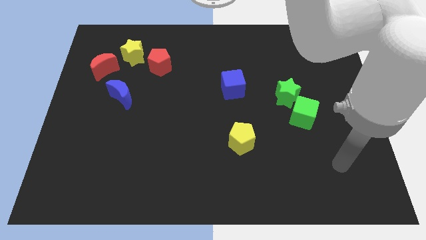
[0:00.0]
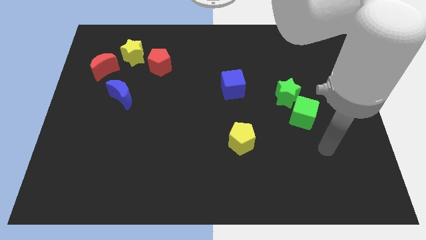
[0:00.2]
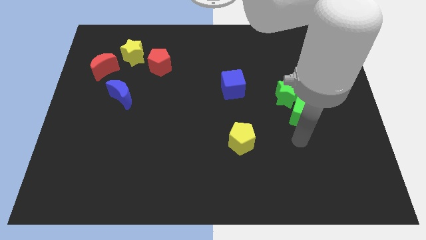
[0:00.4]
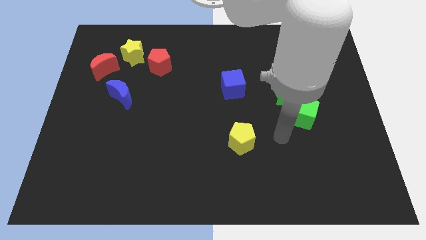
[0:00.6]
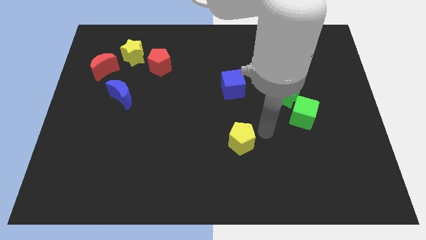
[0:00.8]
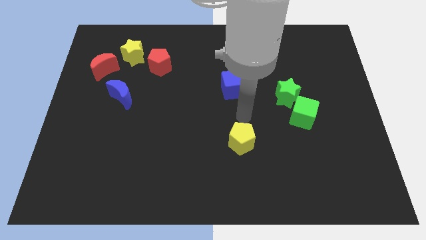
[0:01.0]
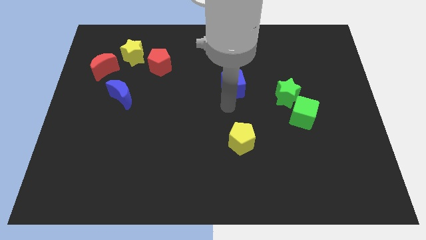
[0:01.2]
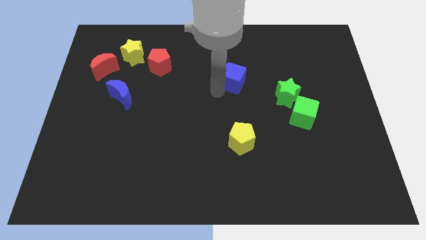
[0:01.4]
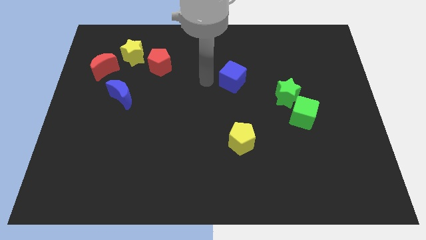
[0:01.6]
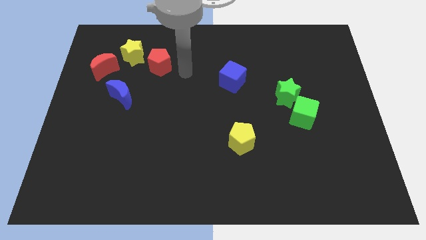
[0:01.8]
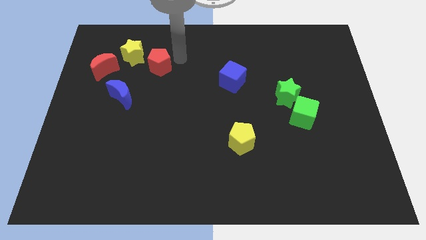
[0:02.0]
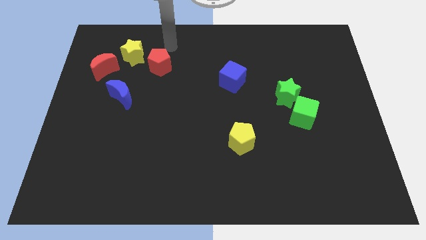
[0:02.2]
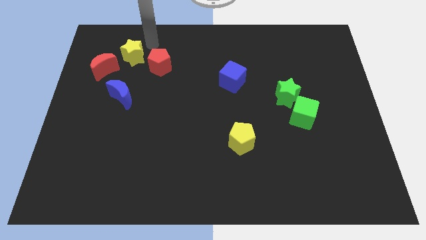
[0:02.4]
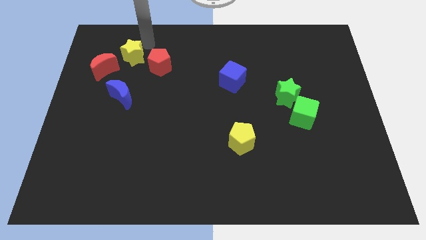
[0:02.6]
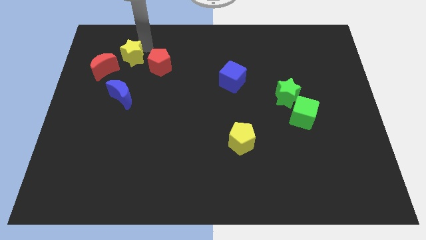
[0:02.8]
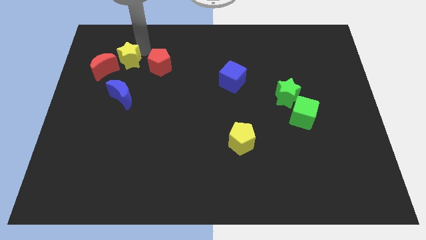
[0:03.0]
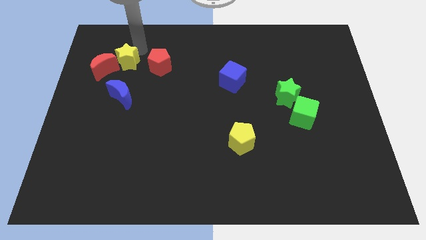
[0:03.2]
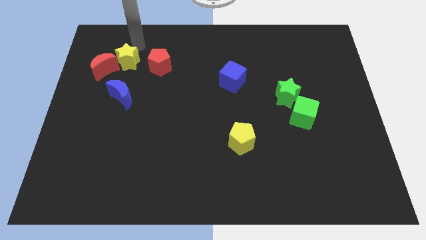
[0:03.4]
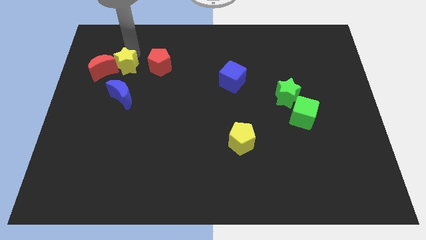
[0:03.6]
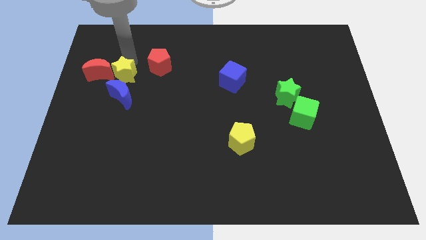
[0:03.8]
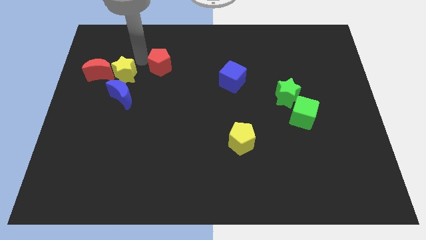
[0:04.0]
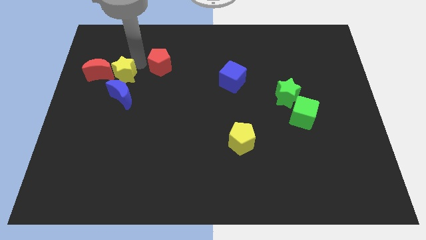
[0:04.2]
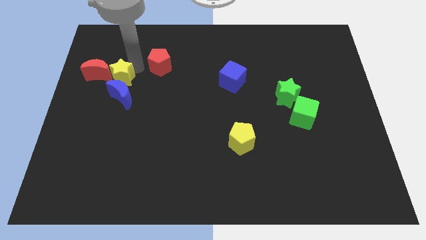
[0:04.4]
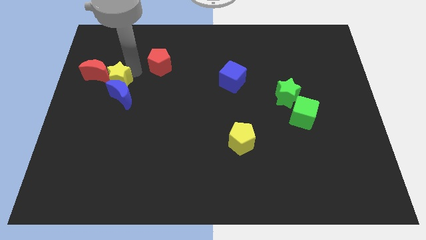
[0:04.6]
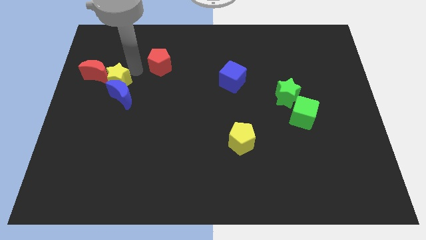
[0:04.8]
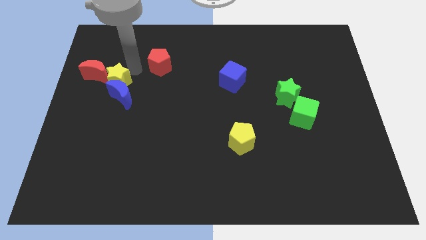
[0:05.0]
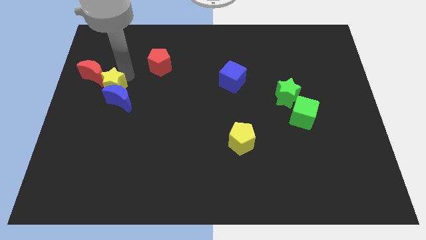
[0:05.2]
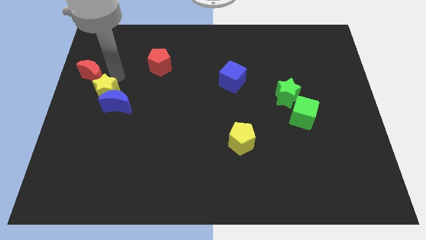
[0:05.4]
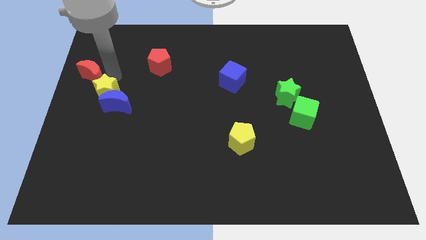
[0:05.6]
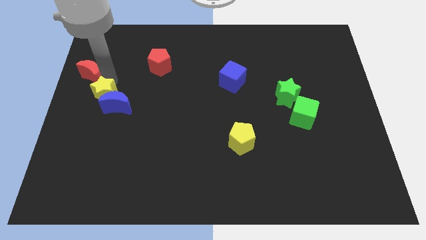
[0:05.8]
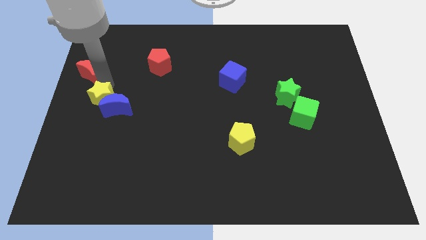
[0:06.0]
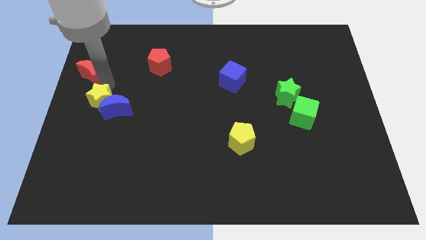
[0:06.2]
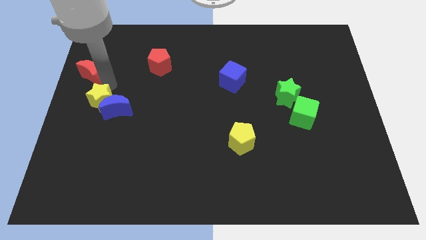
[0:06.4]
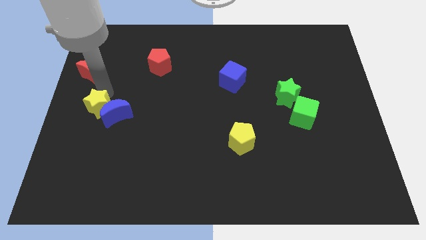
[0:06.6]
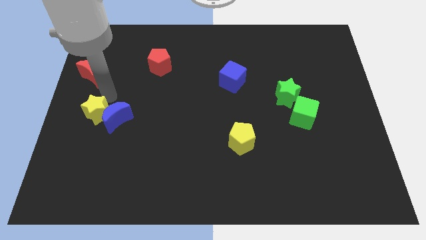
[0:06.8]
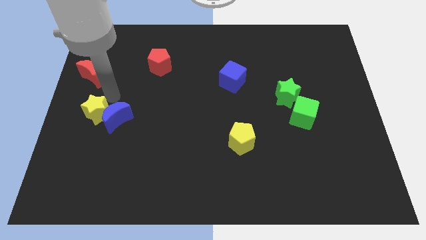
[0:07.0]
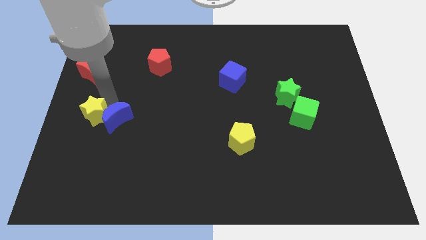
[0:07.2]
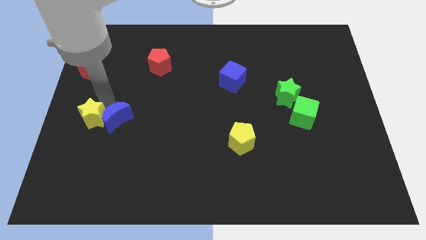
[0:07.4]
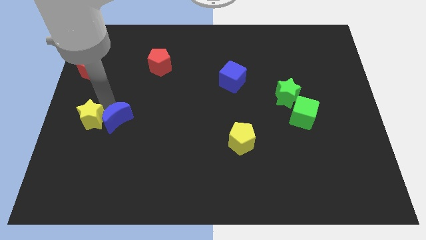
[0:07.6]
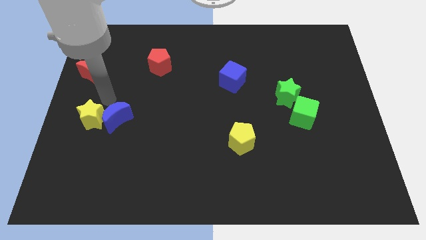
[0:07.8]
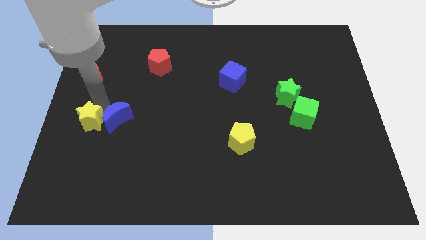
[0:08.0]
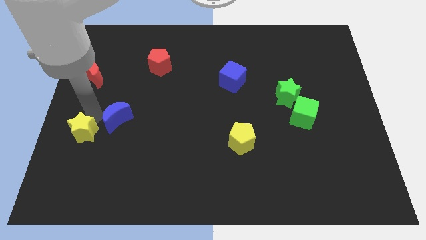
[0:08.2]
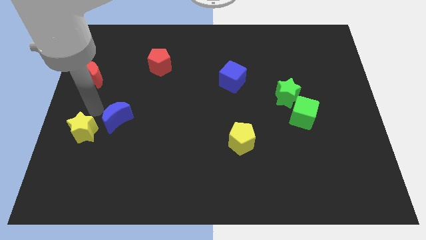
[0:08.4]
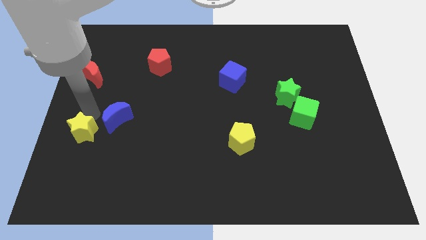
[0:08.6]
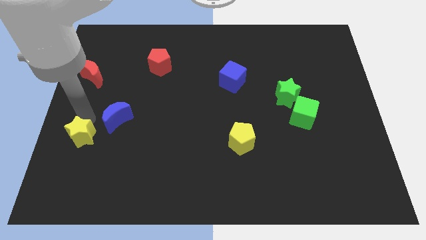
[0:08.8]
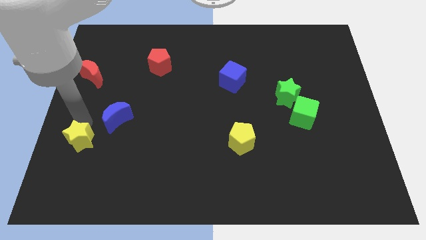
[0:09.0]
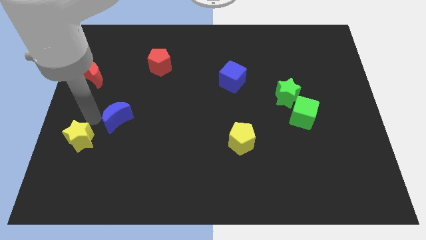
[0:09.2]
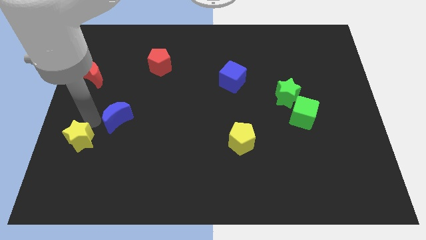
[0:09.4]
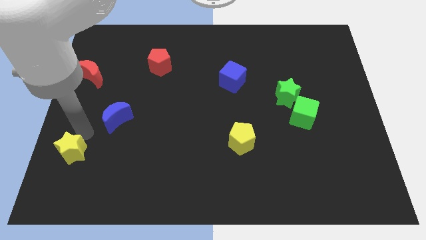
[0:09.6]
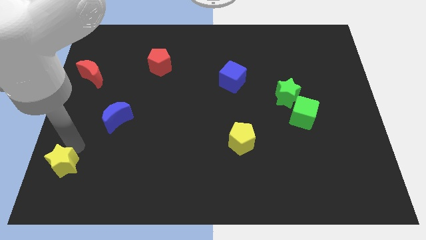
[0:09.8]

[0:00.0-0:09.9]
slide the yellow star to the bottom left of the board

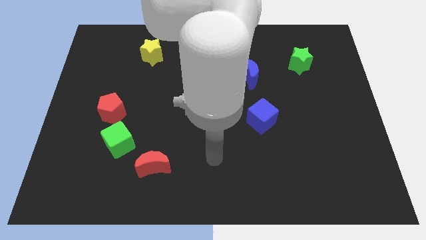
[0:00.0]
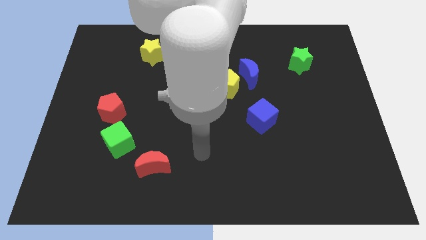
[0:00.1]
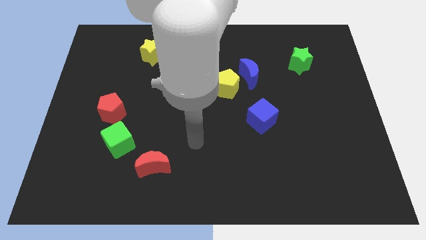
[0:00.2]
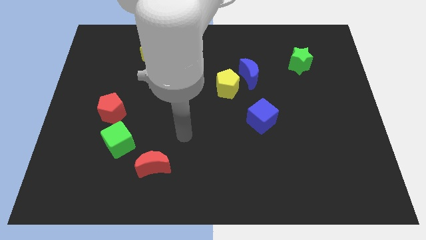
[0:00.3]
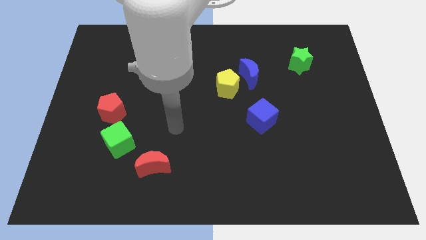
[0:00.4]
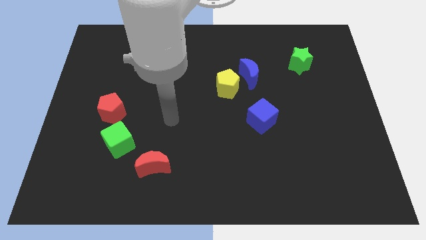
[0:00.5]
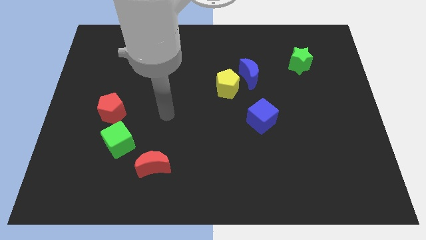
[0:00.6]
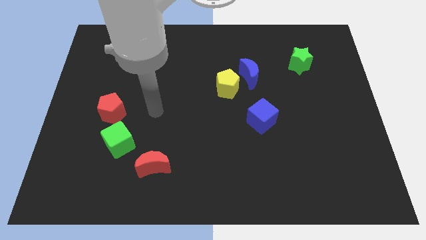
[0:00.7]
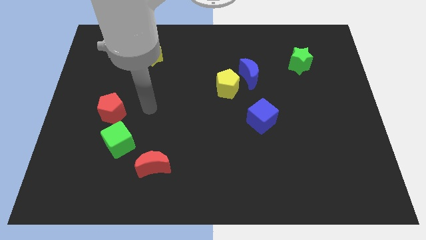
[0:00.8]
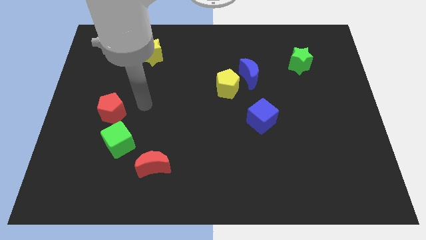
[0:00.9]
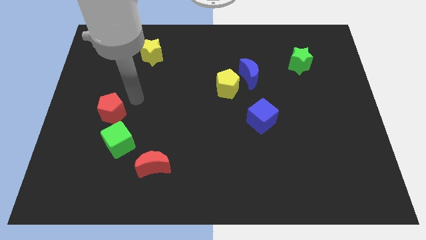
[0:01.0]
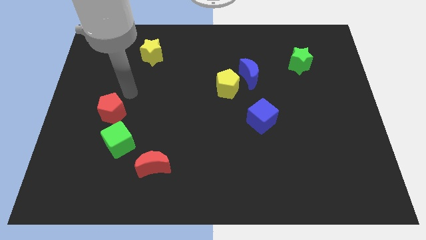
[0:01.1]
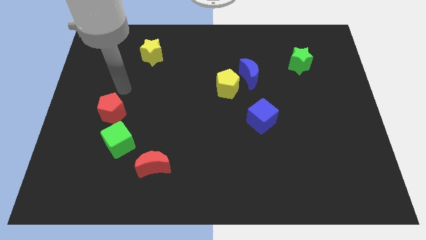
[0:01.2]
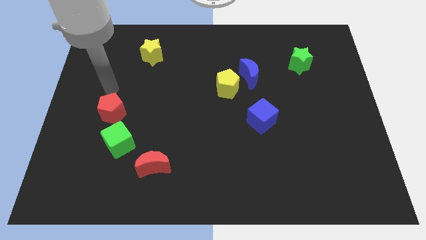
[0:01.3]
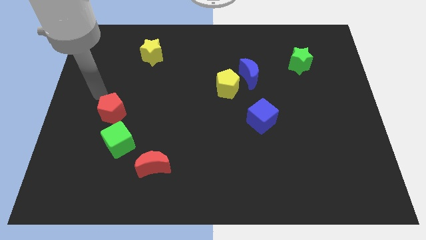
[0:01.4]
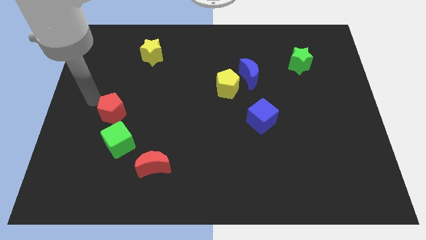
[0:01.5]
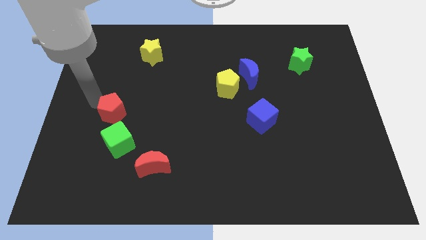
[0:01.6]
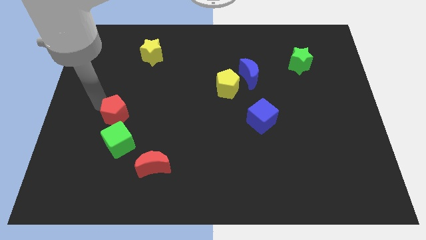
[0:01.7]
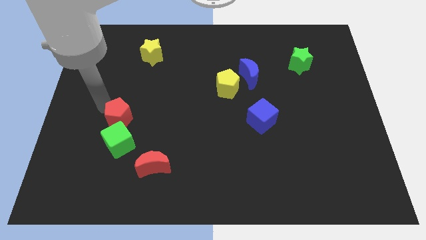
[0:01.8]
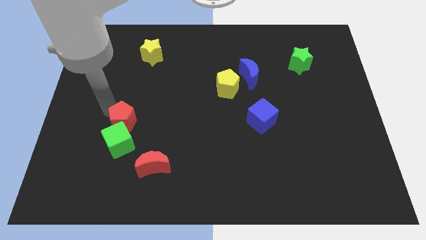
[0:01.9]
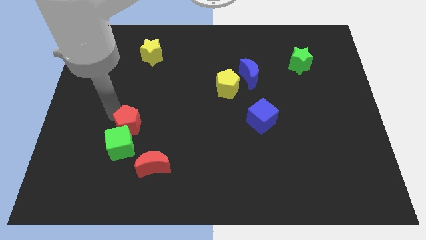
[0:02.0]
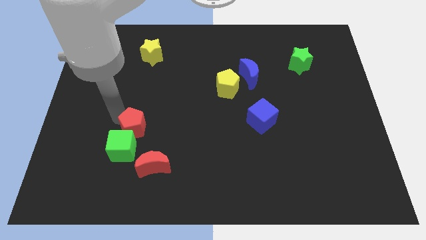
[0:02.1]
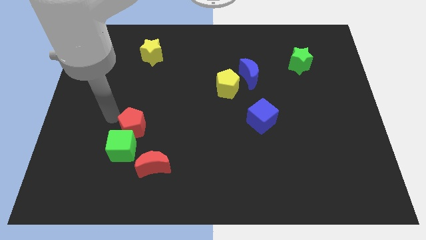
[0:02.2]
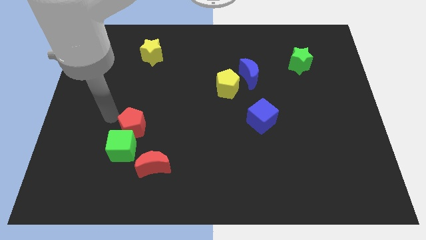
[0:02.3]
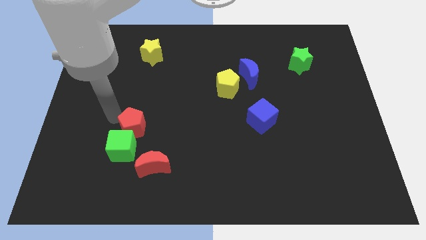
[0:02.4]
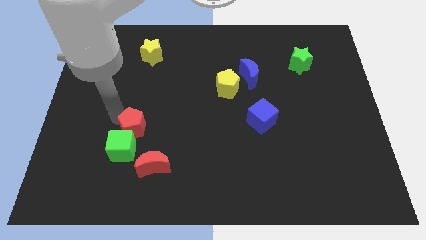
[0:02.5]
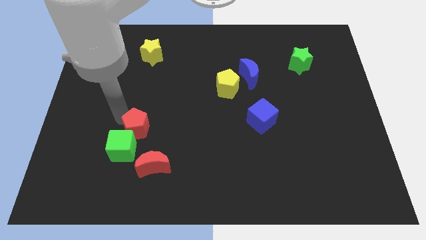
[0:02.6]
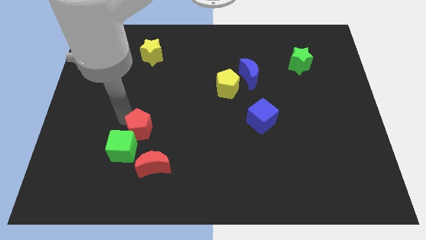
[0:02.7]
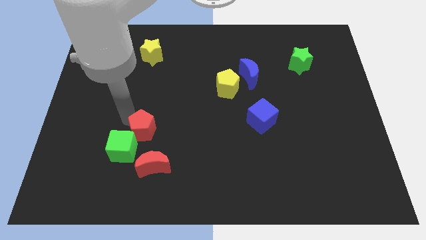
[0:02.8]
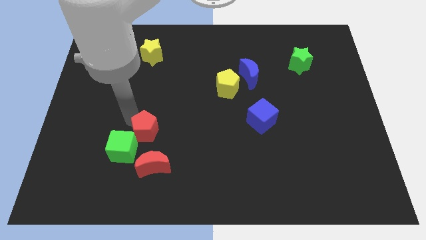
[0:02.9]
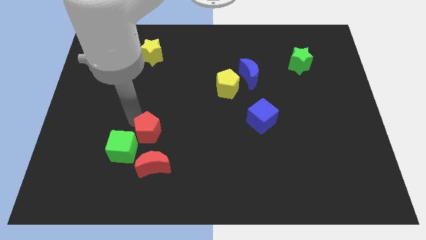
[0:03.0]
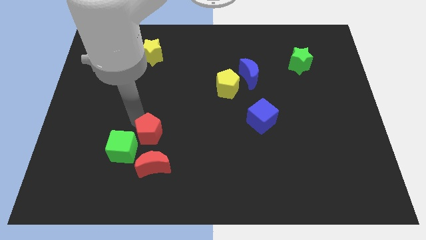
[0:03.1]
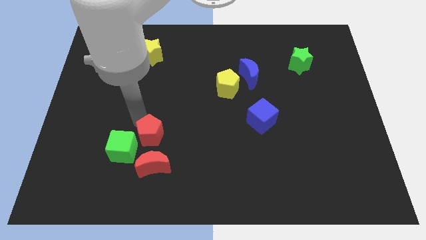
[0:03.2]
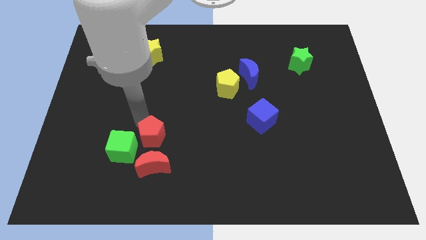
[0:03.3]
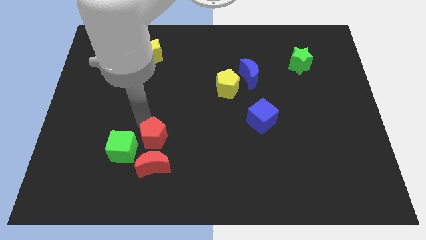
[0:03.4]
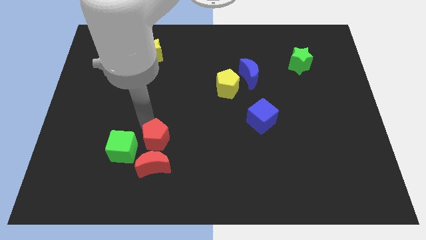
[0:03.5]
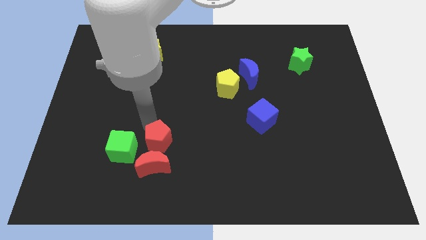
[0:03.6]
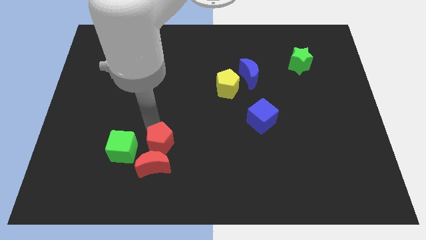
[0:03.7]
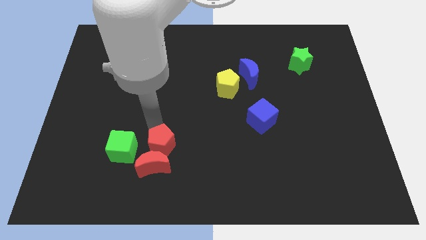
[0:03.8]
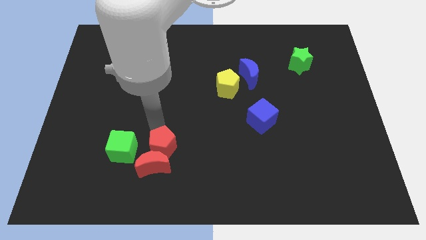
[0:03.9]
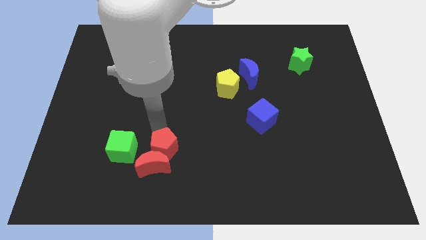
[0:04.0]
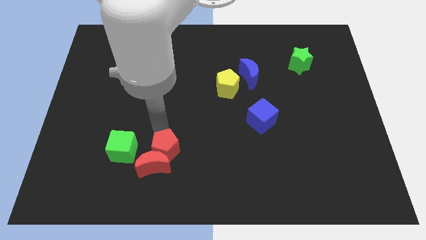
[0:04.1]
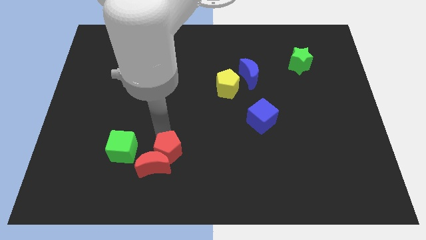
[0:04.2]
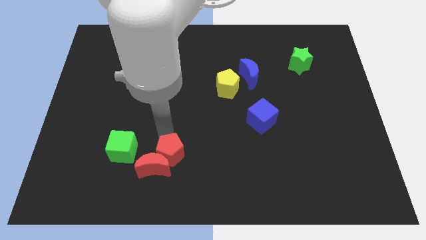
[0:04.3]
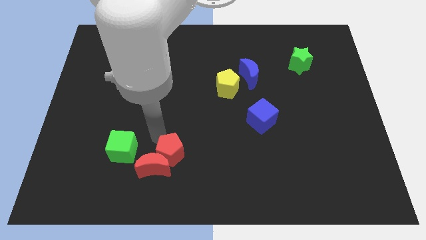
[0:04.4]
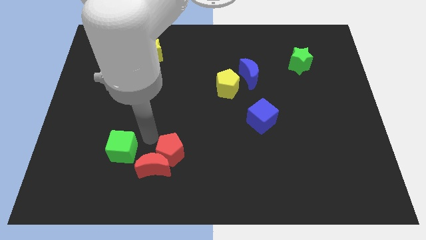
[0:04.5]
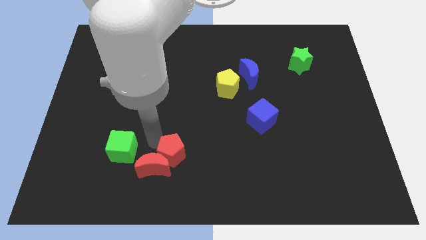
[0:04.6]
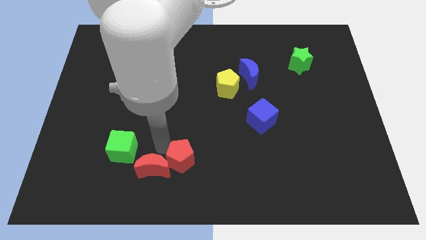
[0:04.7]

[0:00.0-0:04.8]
push the red pentagon to the bottom
